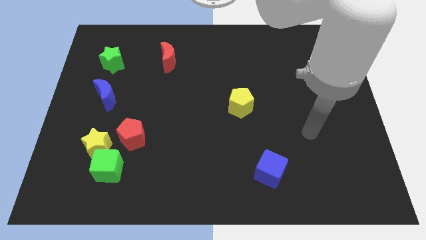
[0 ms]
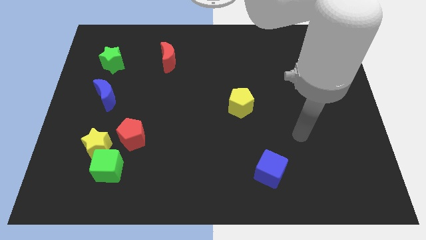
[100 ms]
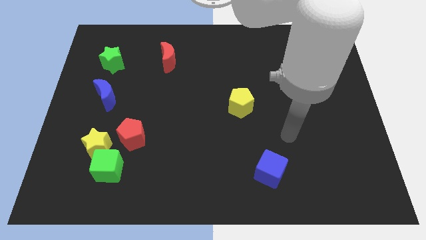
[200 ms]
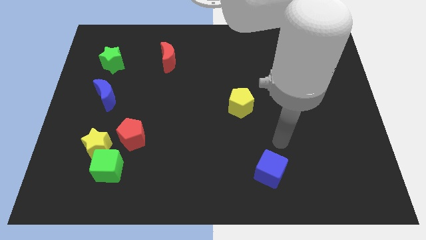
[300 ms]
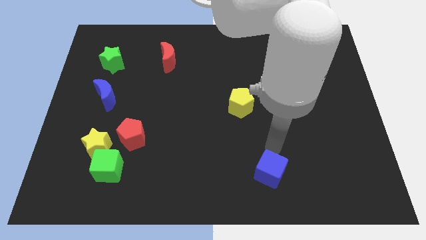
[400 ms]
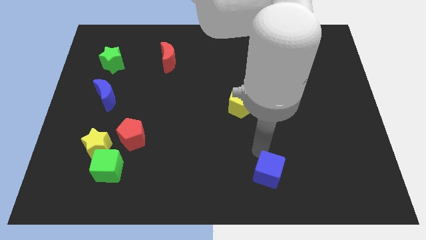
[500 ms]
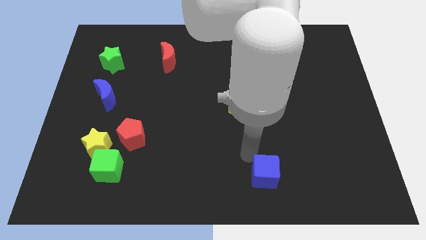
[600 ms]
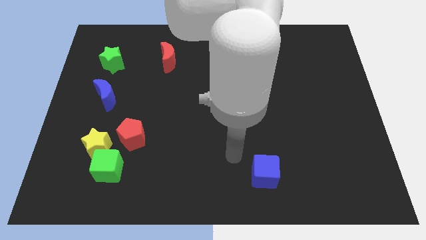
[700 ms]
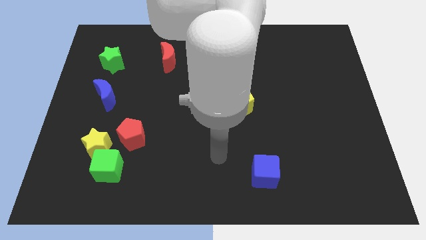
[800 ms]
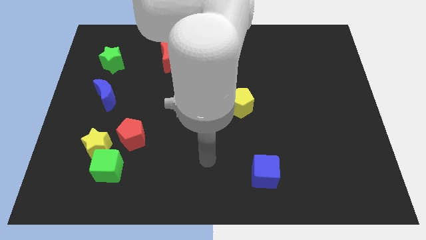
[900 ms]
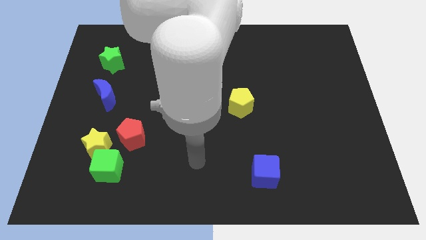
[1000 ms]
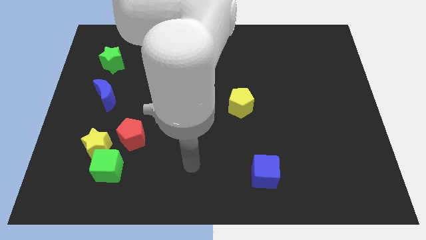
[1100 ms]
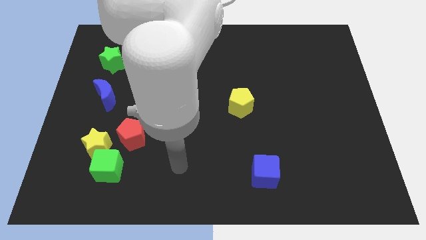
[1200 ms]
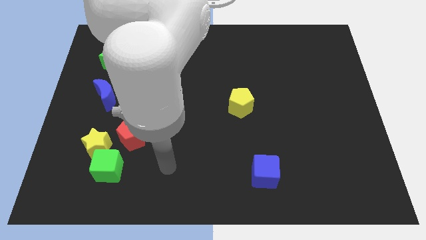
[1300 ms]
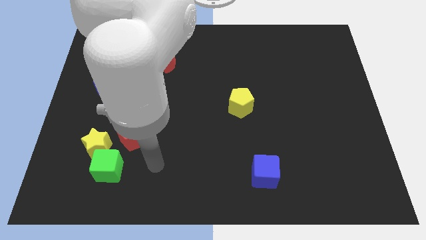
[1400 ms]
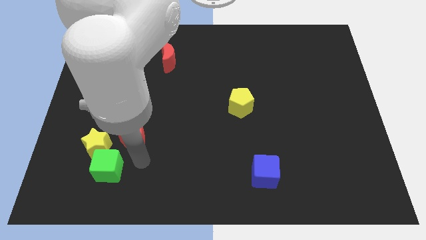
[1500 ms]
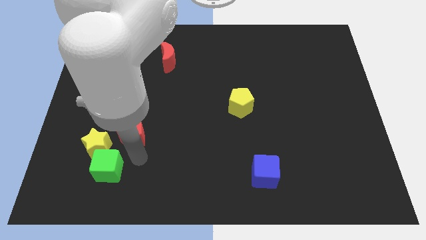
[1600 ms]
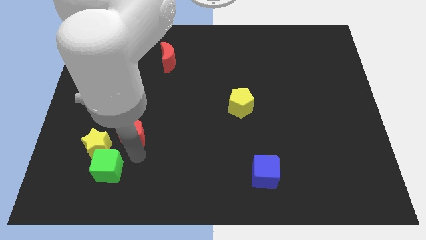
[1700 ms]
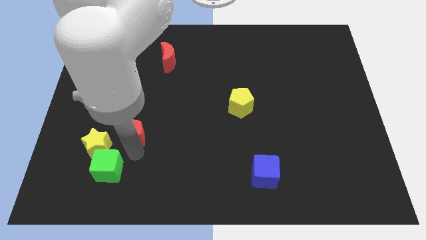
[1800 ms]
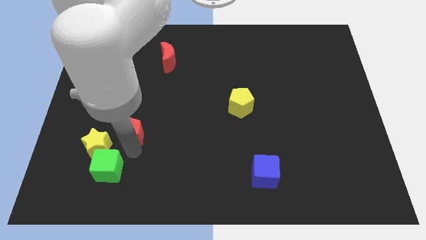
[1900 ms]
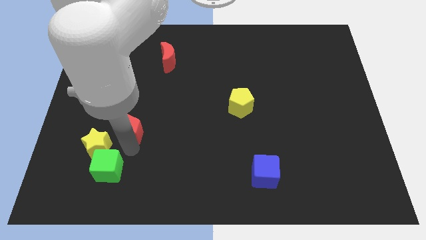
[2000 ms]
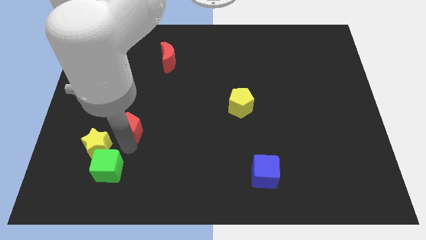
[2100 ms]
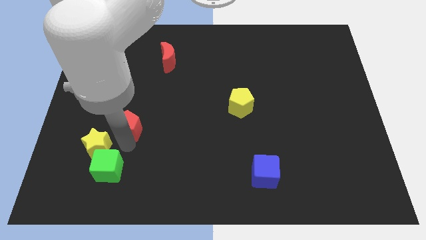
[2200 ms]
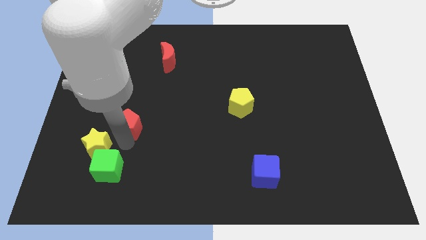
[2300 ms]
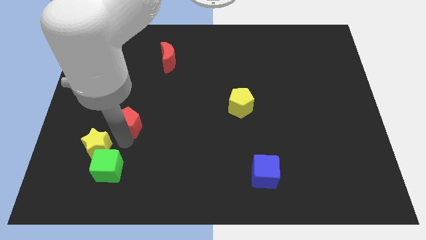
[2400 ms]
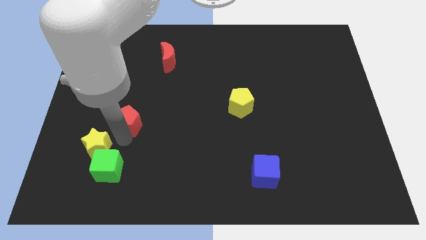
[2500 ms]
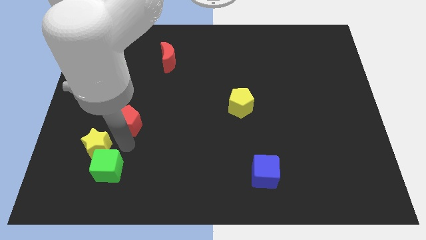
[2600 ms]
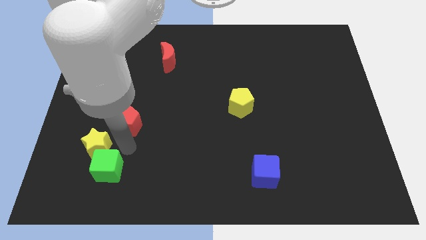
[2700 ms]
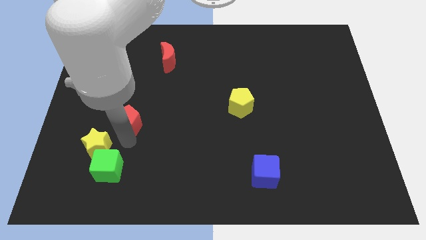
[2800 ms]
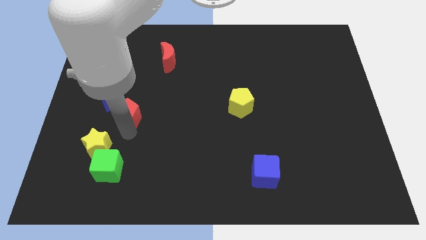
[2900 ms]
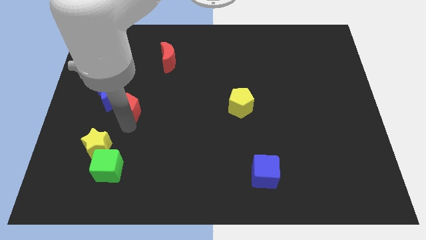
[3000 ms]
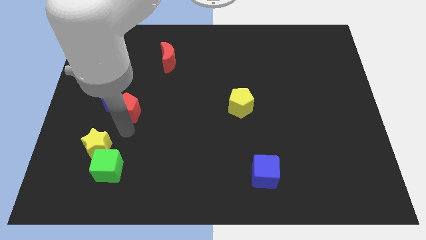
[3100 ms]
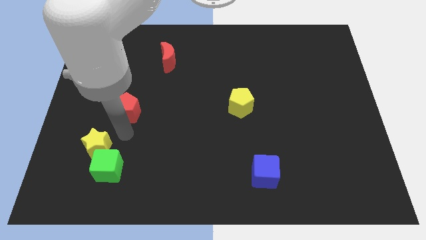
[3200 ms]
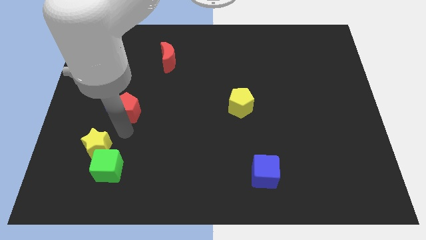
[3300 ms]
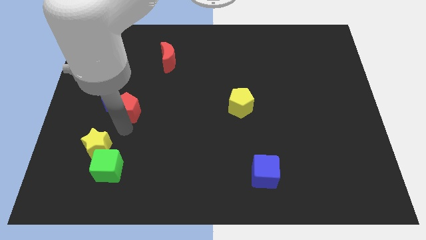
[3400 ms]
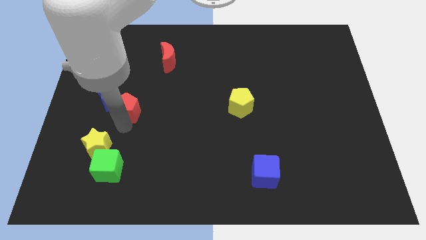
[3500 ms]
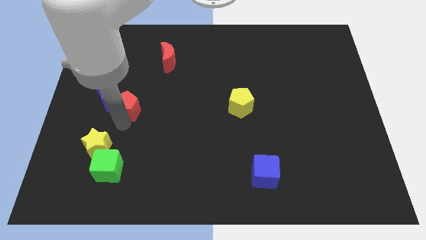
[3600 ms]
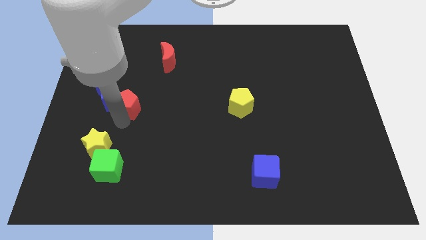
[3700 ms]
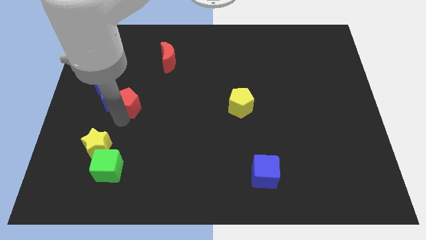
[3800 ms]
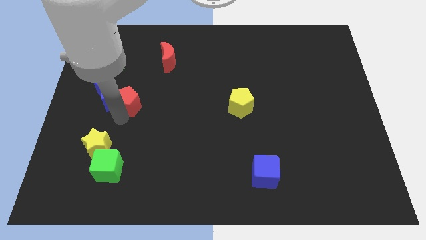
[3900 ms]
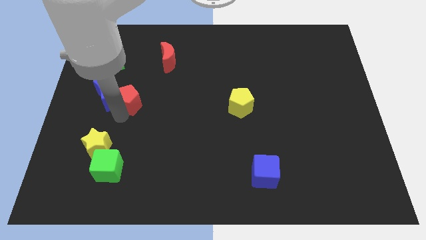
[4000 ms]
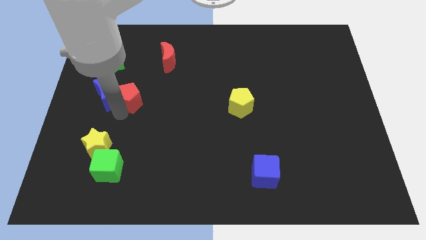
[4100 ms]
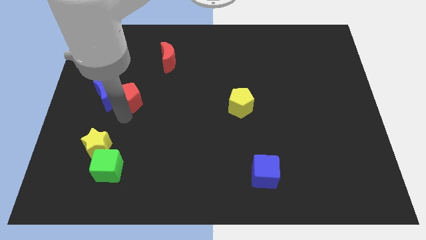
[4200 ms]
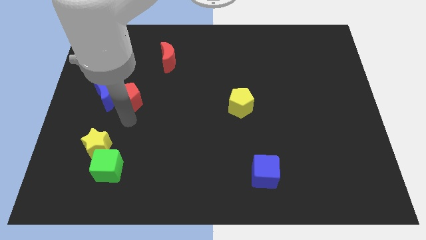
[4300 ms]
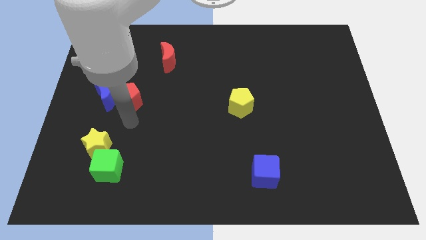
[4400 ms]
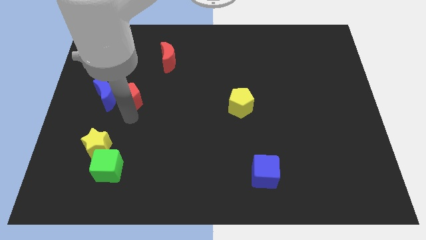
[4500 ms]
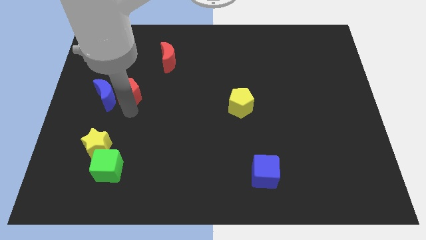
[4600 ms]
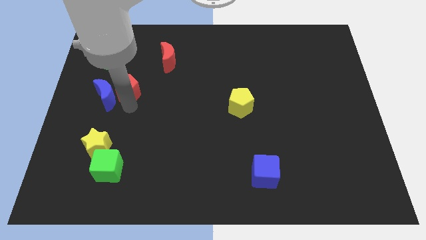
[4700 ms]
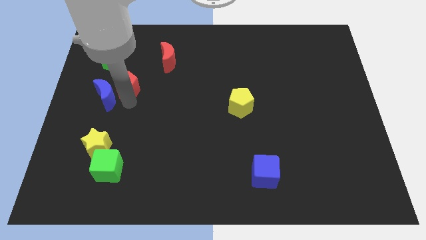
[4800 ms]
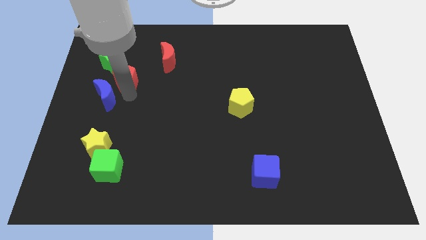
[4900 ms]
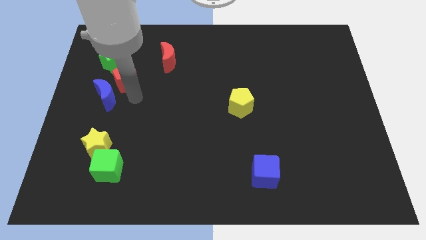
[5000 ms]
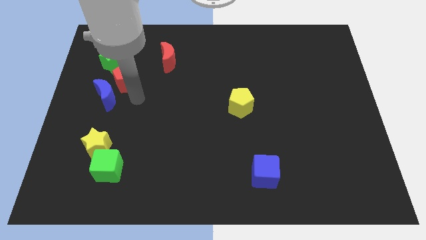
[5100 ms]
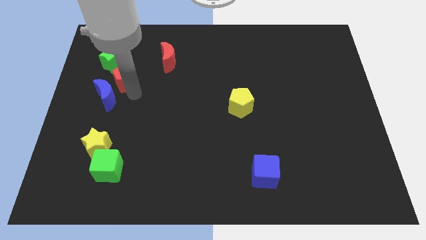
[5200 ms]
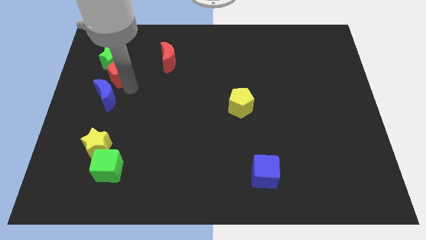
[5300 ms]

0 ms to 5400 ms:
slide the red pentagon close to the green star

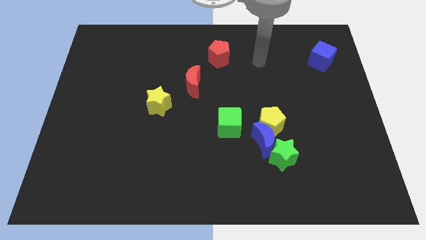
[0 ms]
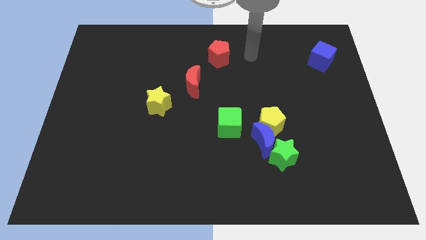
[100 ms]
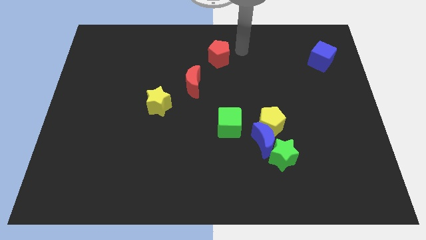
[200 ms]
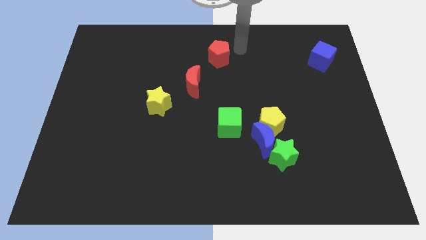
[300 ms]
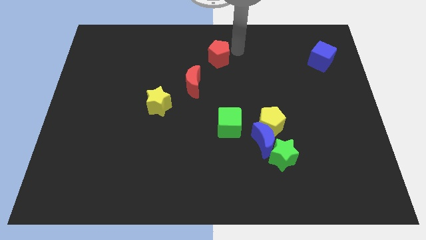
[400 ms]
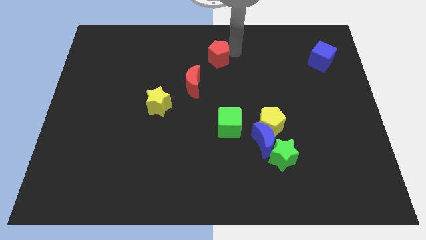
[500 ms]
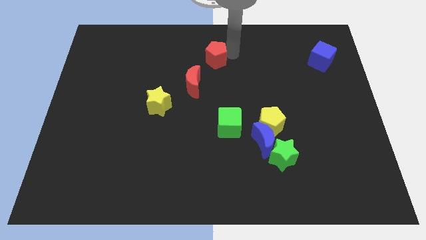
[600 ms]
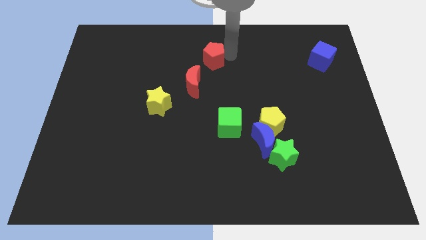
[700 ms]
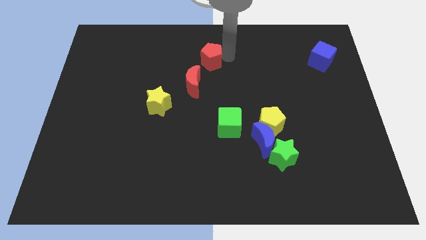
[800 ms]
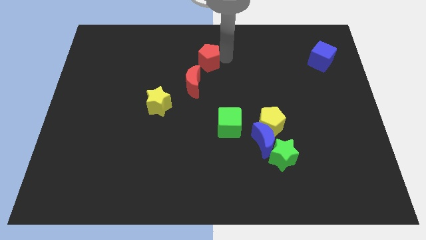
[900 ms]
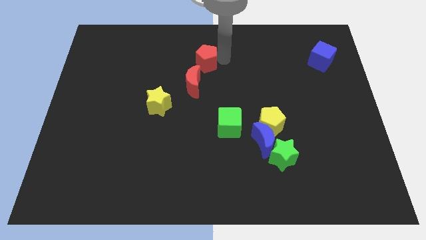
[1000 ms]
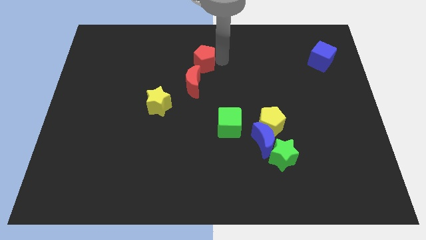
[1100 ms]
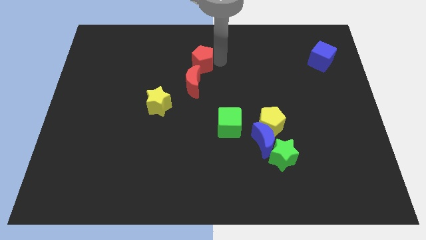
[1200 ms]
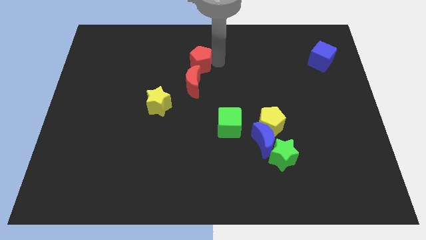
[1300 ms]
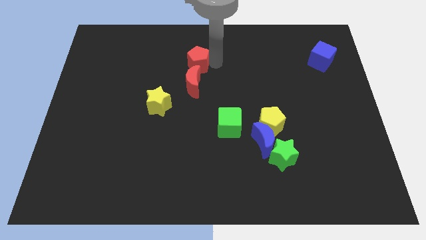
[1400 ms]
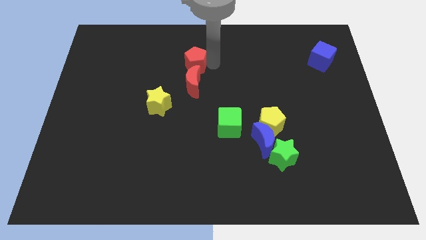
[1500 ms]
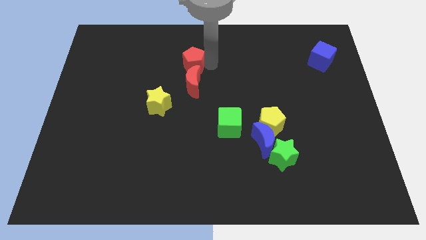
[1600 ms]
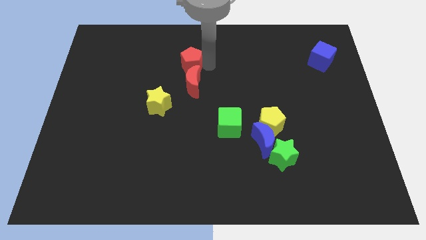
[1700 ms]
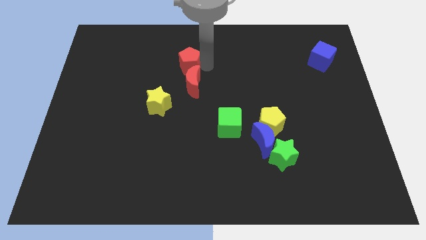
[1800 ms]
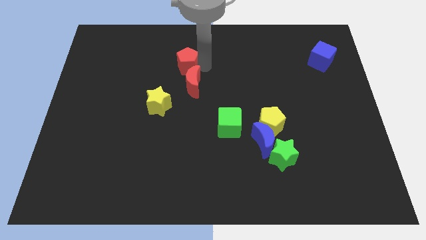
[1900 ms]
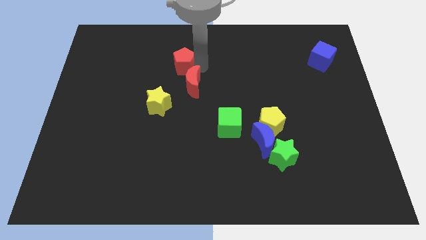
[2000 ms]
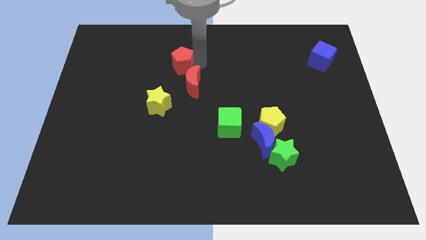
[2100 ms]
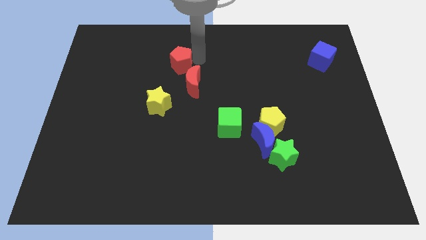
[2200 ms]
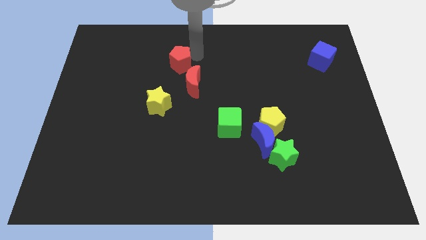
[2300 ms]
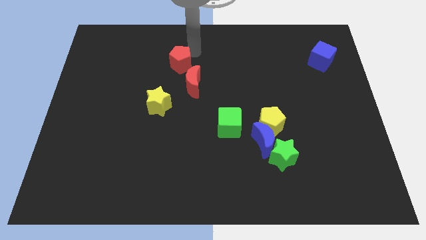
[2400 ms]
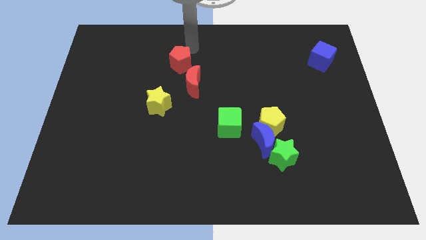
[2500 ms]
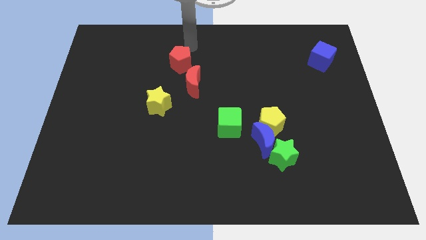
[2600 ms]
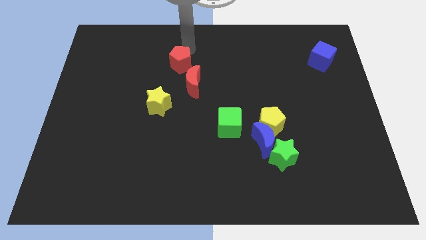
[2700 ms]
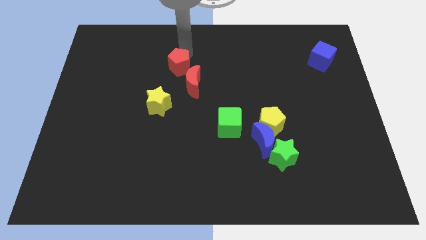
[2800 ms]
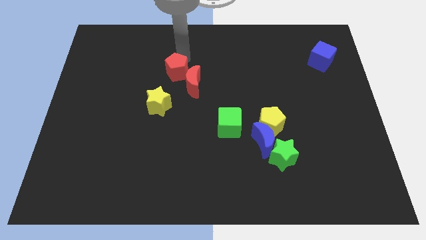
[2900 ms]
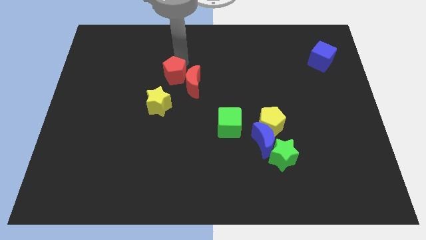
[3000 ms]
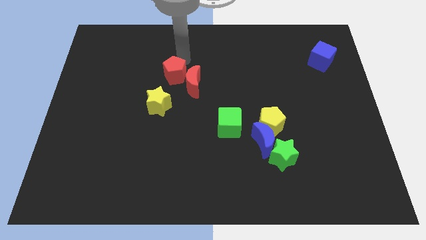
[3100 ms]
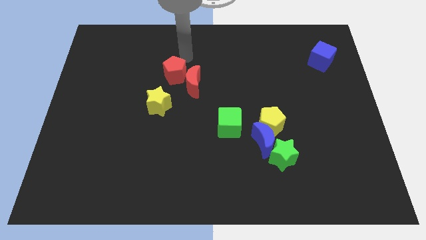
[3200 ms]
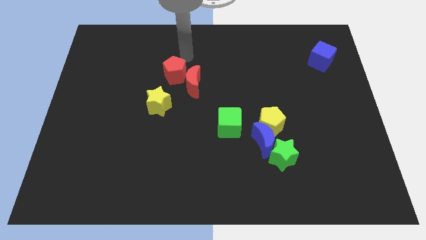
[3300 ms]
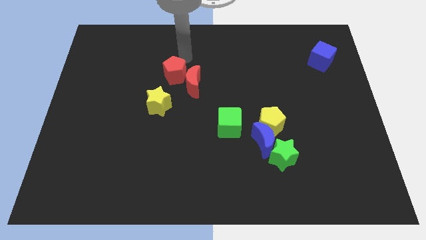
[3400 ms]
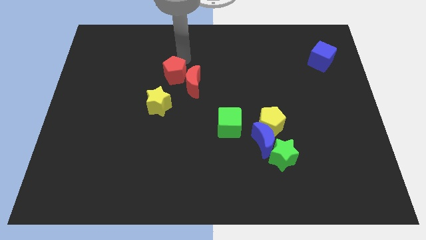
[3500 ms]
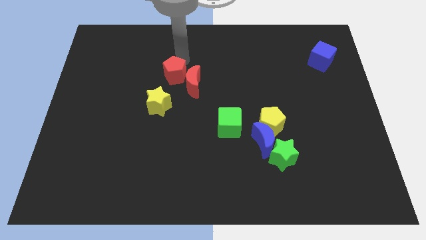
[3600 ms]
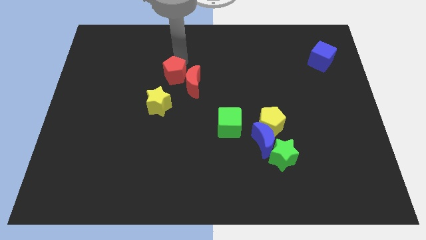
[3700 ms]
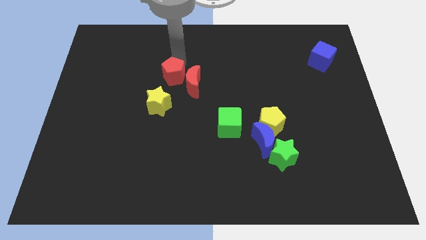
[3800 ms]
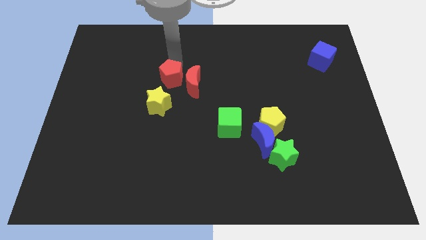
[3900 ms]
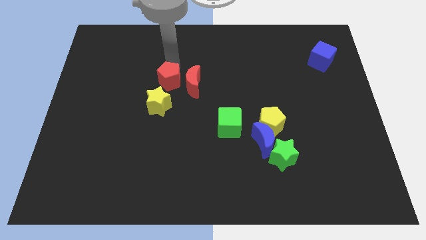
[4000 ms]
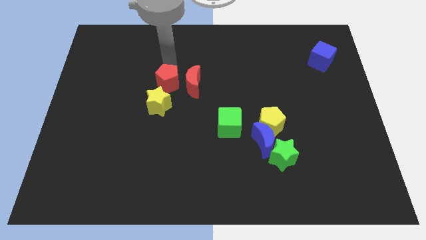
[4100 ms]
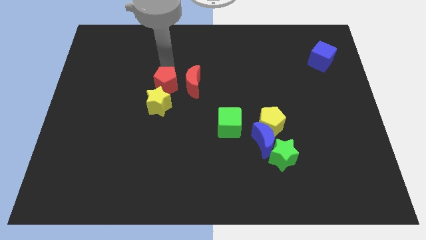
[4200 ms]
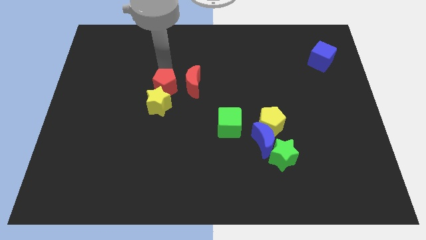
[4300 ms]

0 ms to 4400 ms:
slide the red pentagon to the yellow star
